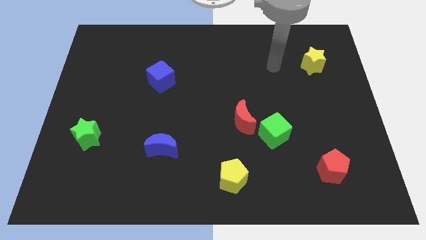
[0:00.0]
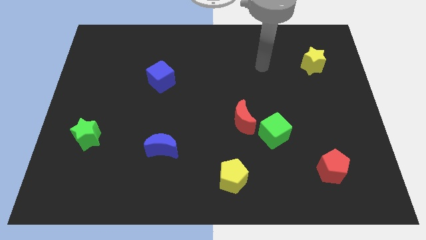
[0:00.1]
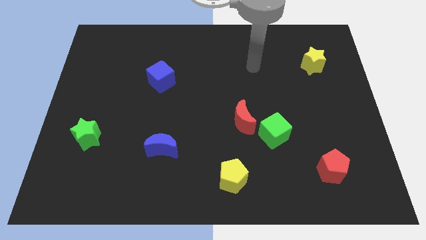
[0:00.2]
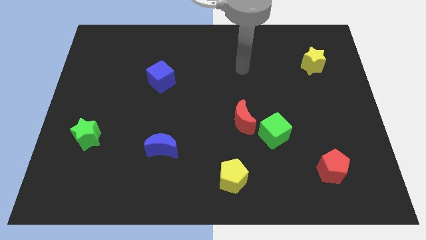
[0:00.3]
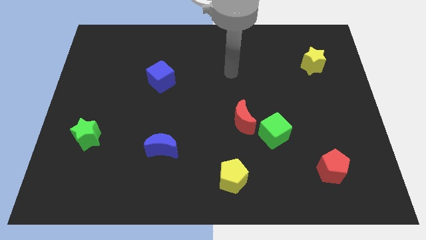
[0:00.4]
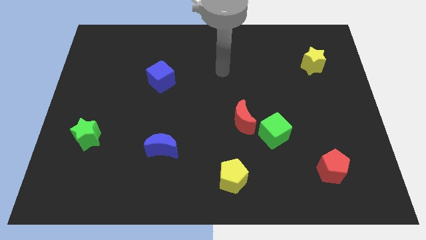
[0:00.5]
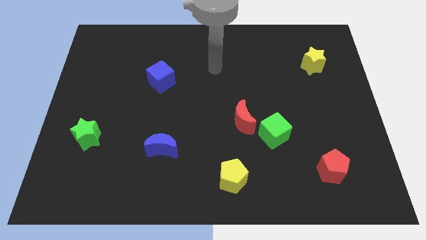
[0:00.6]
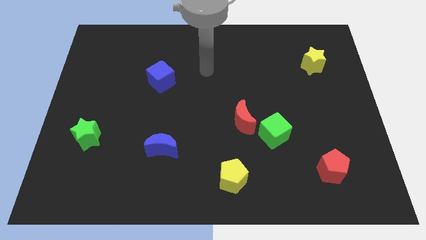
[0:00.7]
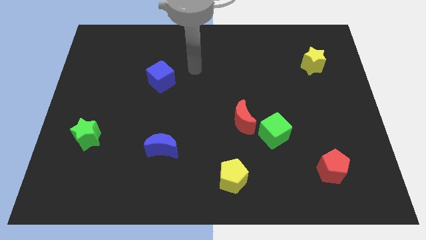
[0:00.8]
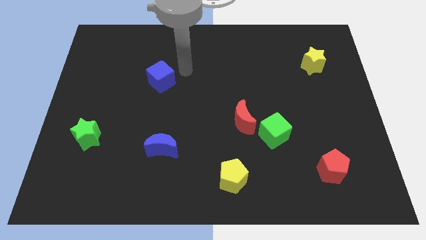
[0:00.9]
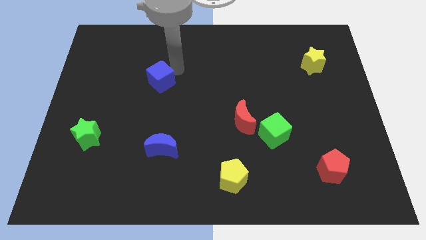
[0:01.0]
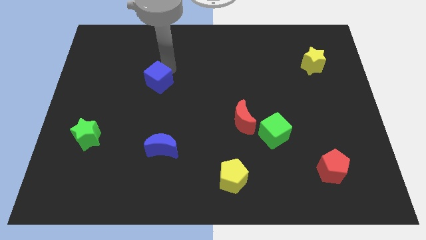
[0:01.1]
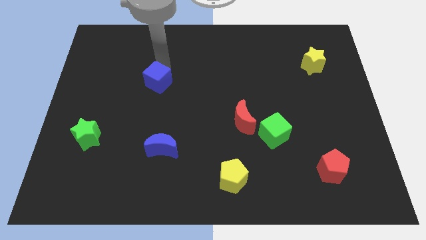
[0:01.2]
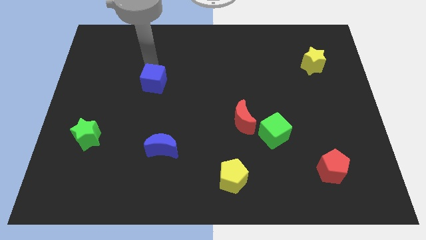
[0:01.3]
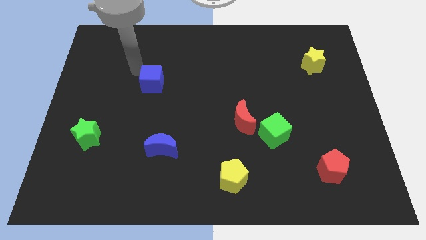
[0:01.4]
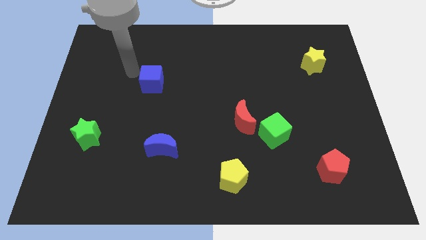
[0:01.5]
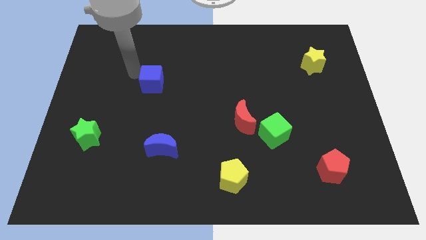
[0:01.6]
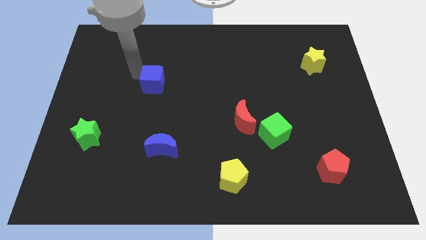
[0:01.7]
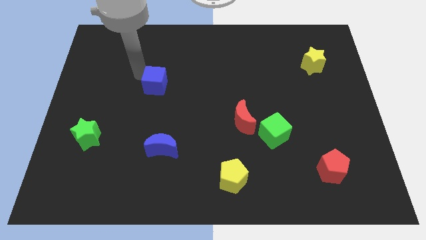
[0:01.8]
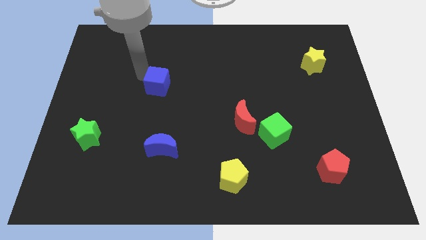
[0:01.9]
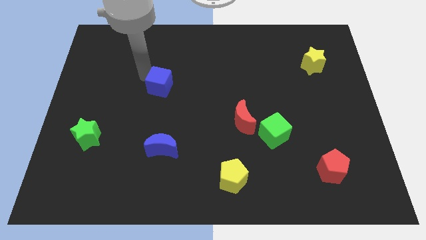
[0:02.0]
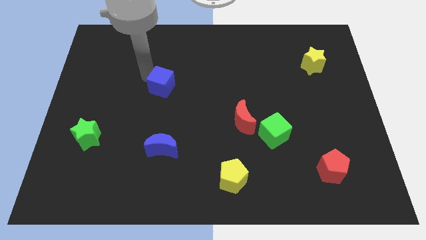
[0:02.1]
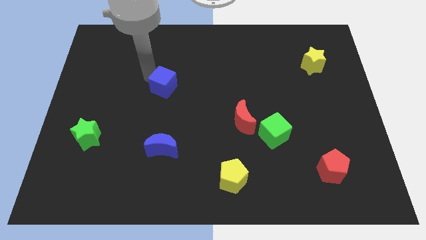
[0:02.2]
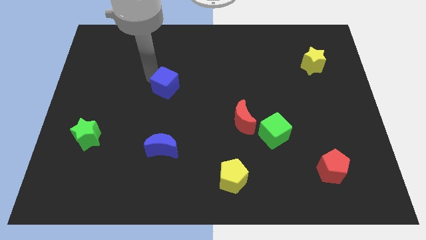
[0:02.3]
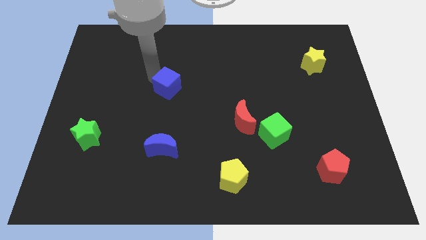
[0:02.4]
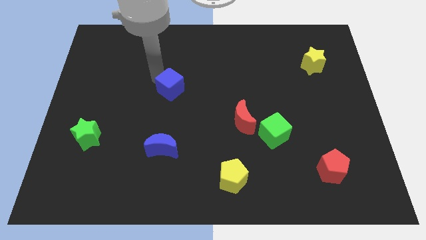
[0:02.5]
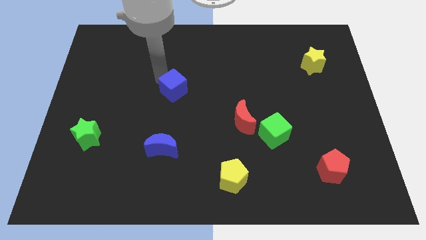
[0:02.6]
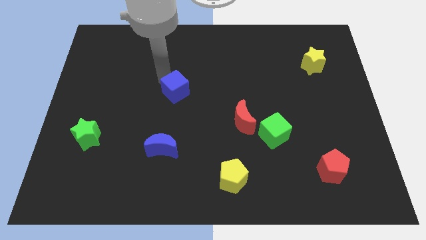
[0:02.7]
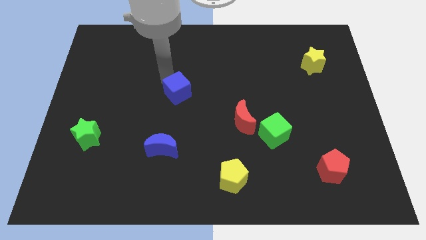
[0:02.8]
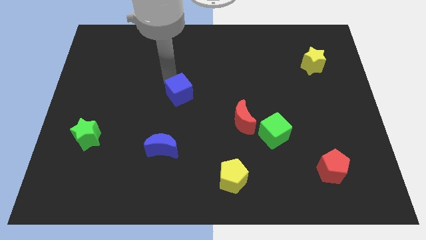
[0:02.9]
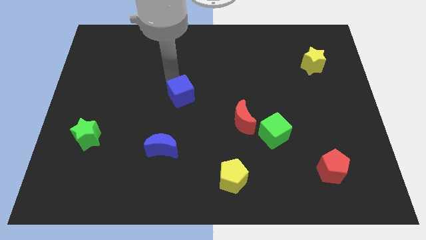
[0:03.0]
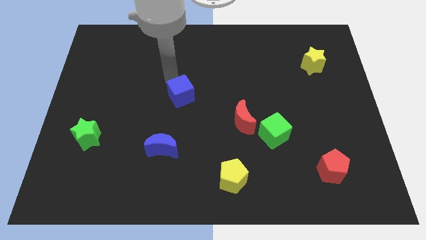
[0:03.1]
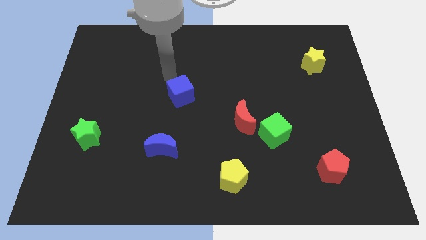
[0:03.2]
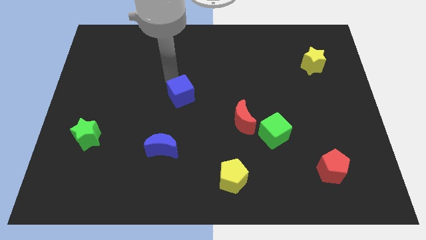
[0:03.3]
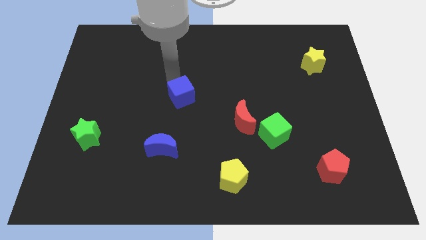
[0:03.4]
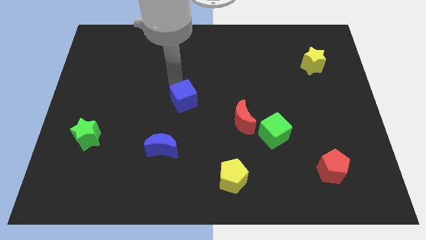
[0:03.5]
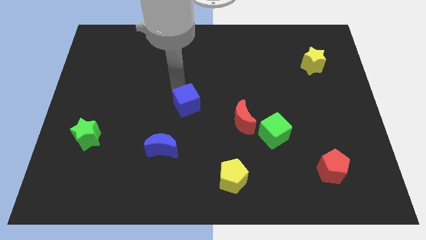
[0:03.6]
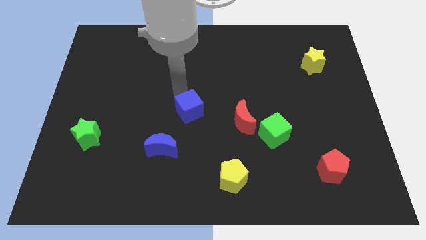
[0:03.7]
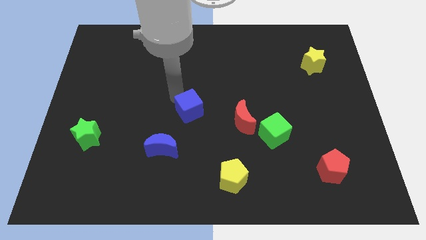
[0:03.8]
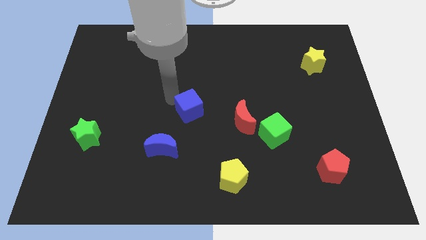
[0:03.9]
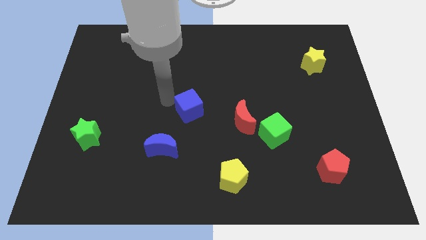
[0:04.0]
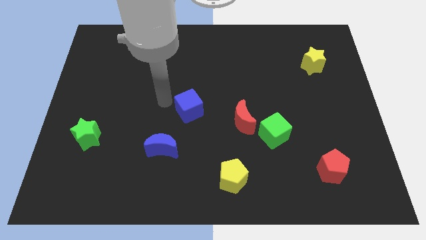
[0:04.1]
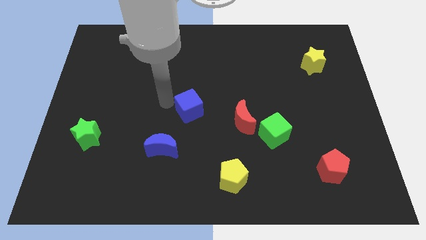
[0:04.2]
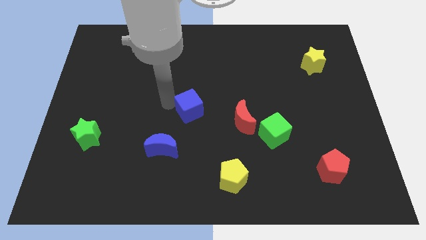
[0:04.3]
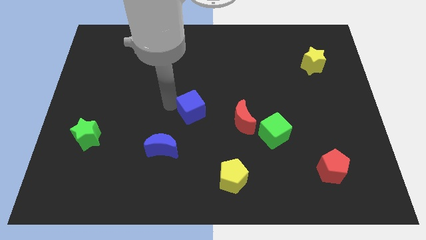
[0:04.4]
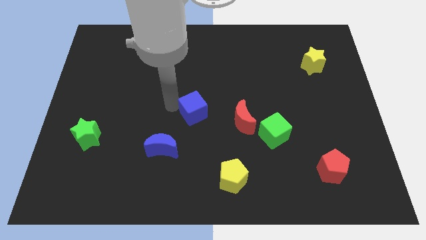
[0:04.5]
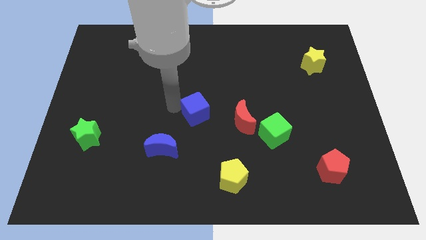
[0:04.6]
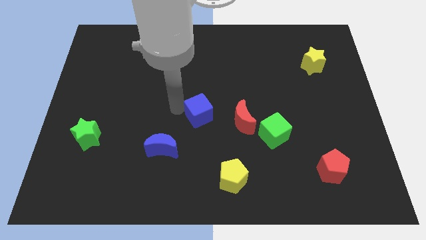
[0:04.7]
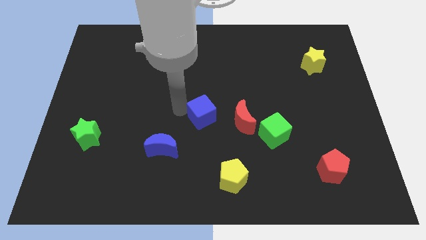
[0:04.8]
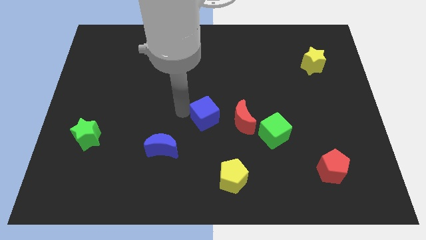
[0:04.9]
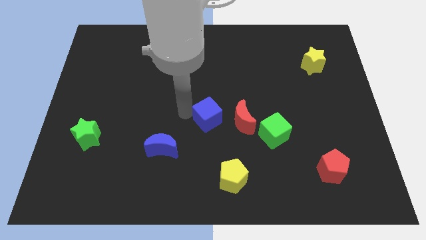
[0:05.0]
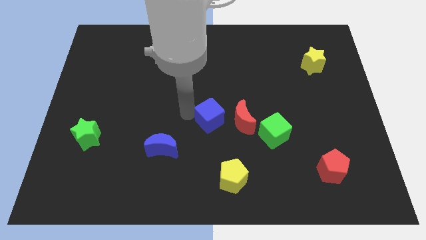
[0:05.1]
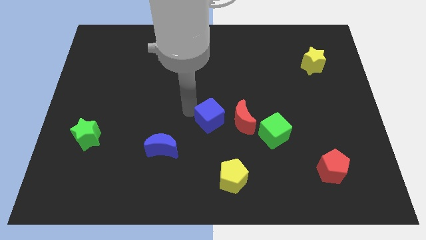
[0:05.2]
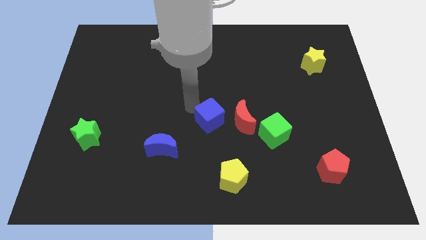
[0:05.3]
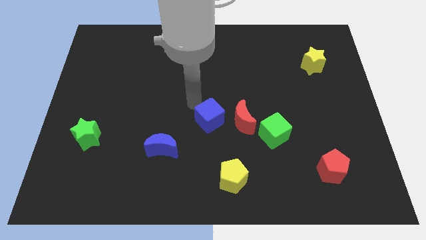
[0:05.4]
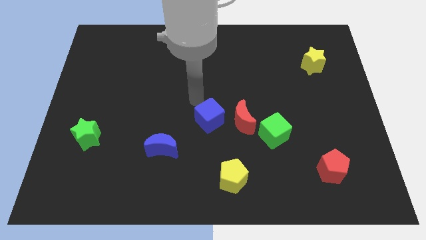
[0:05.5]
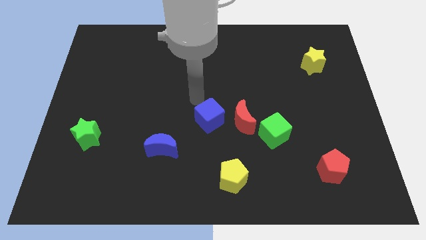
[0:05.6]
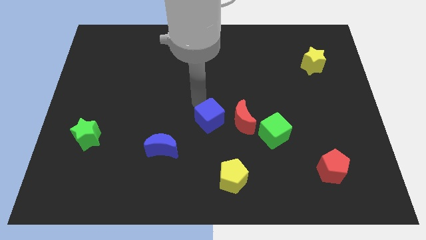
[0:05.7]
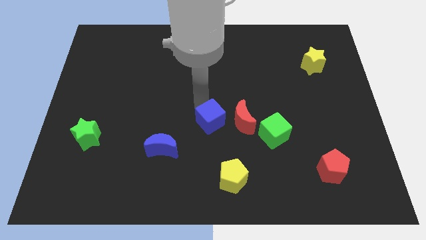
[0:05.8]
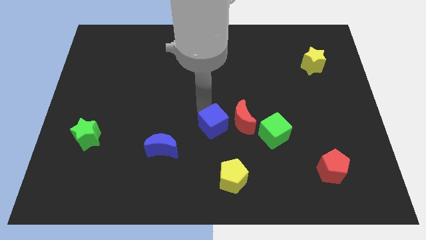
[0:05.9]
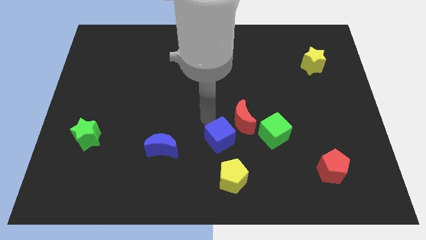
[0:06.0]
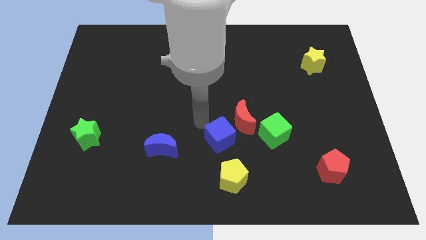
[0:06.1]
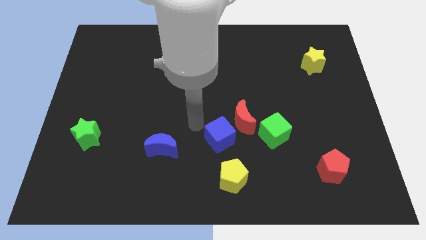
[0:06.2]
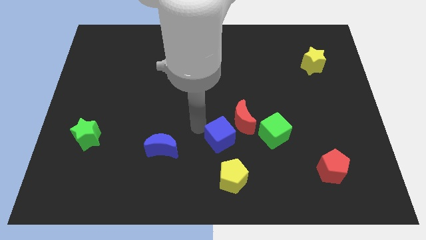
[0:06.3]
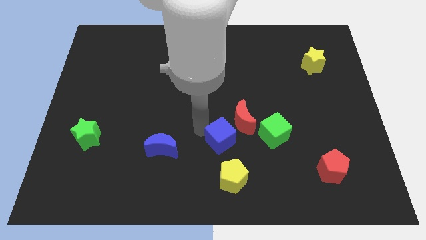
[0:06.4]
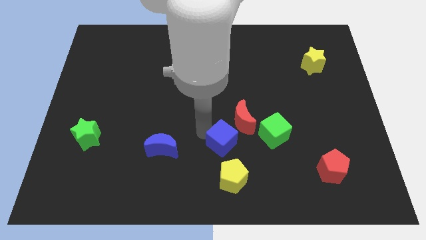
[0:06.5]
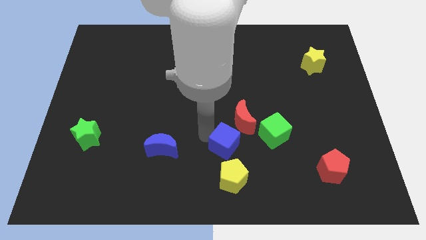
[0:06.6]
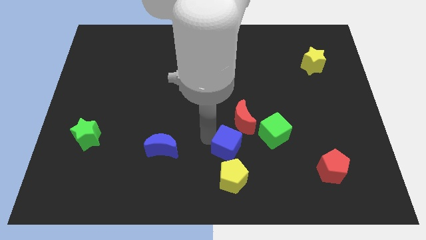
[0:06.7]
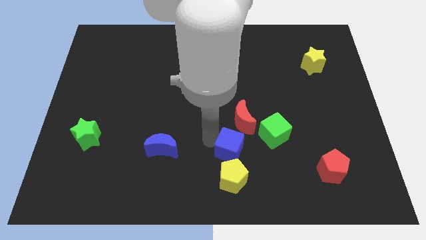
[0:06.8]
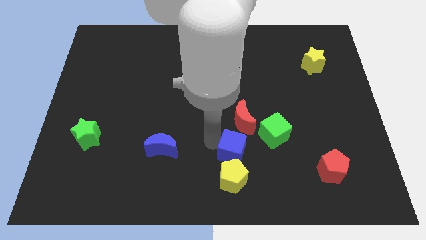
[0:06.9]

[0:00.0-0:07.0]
slide the blue cube diagonally up and to the right of the yellow pentagon
